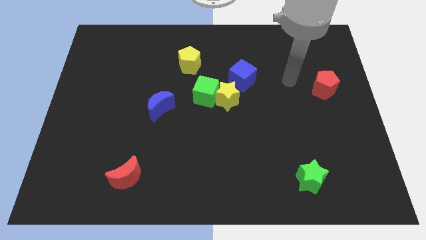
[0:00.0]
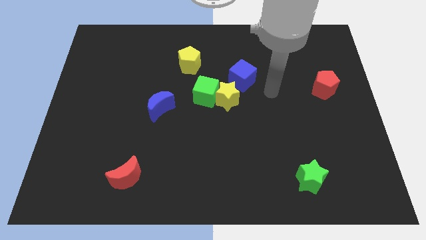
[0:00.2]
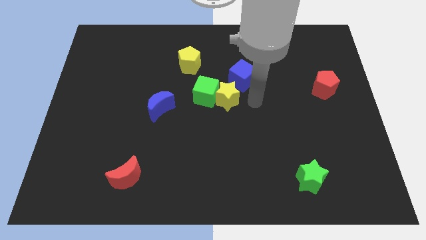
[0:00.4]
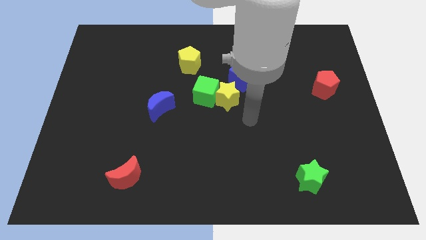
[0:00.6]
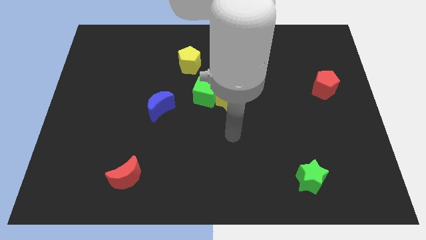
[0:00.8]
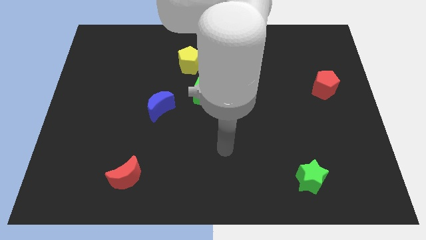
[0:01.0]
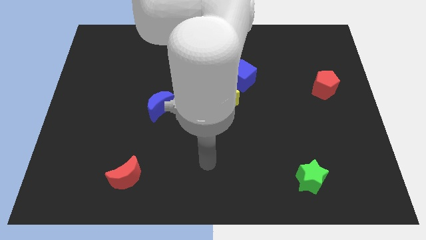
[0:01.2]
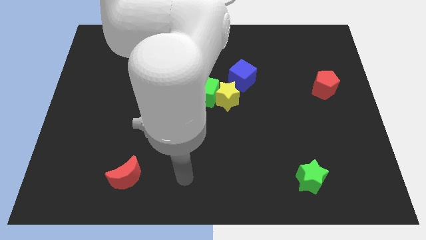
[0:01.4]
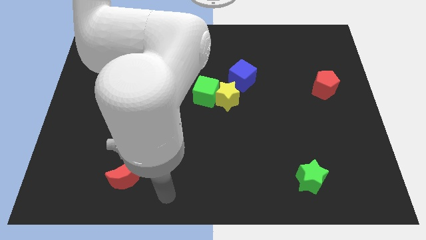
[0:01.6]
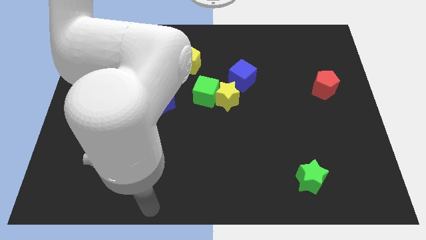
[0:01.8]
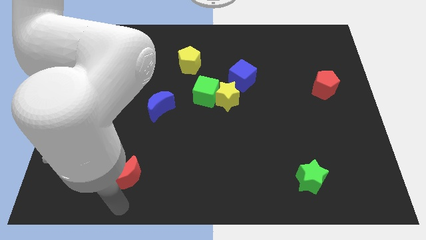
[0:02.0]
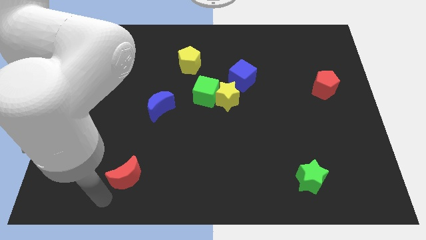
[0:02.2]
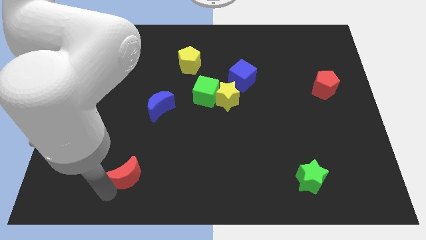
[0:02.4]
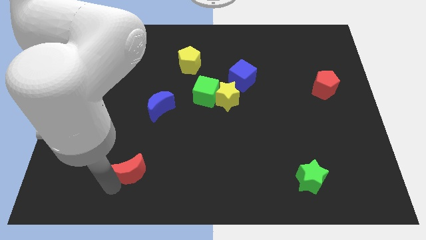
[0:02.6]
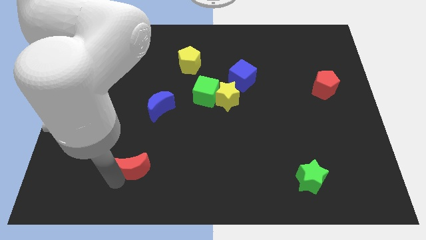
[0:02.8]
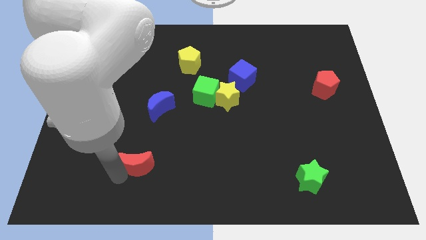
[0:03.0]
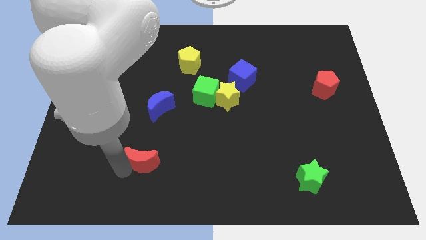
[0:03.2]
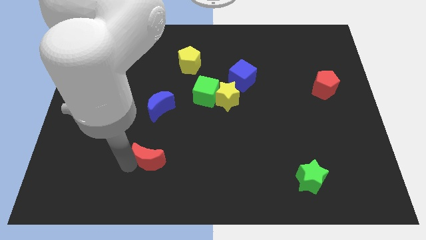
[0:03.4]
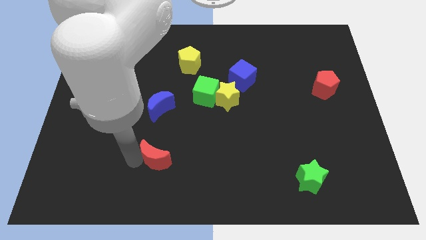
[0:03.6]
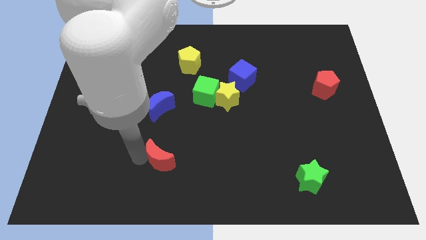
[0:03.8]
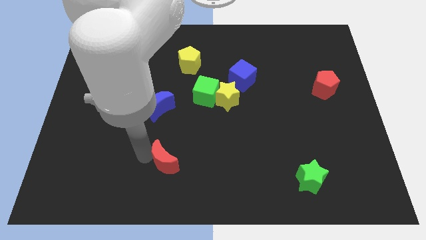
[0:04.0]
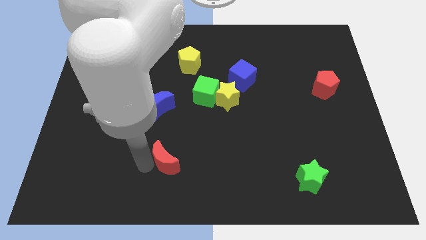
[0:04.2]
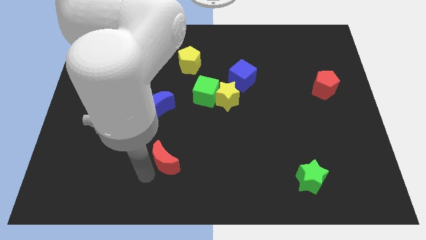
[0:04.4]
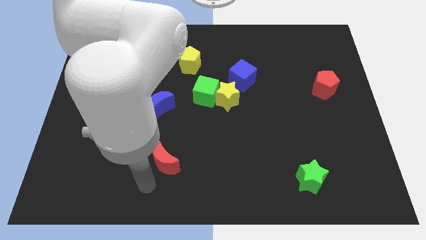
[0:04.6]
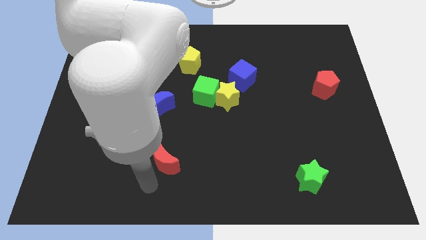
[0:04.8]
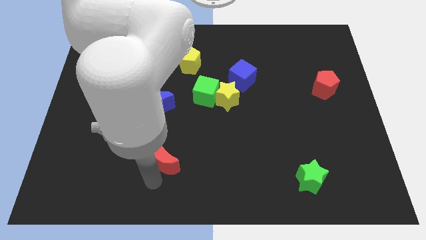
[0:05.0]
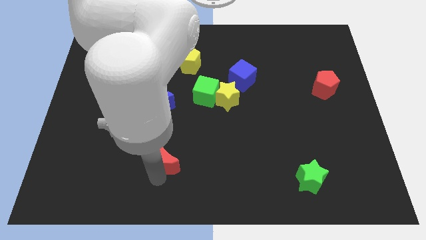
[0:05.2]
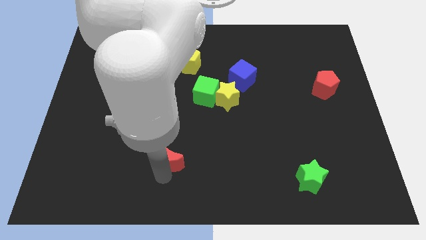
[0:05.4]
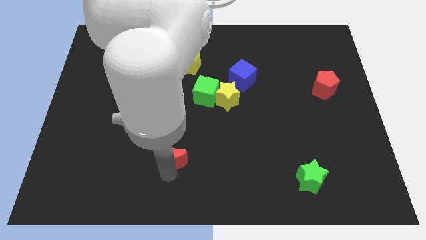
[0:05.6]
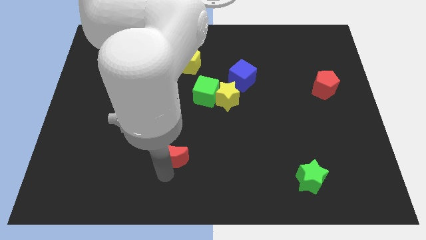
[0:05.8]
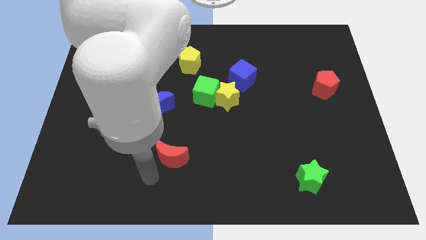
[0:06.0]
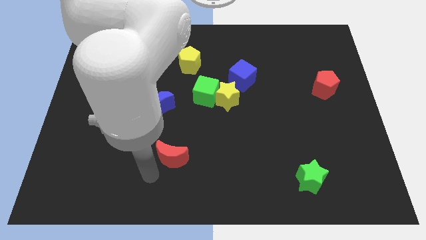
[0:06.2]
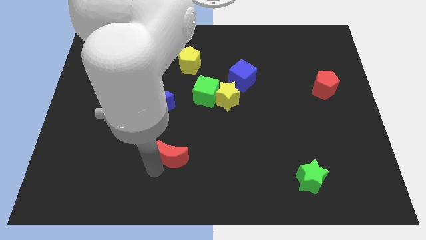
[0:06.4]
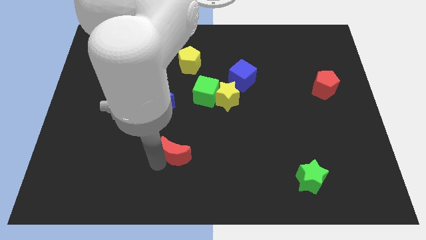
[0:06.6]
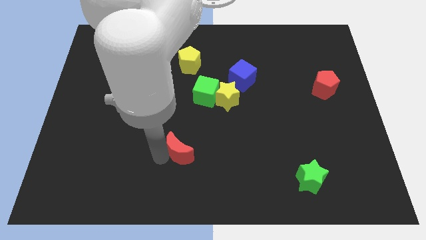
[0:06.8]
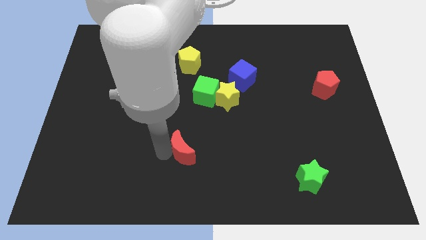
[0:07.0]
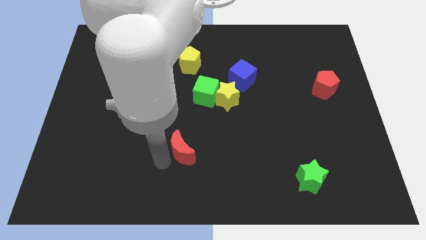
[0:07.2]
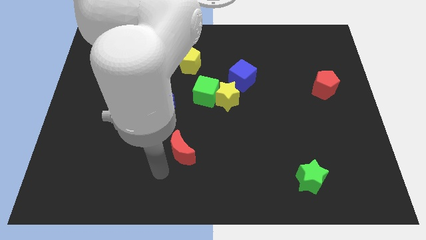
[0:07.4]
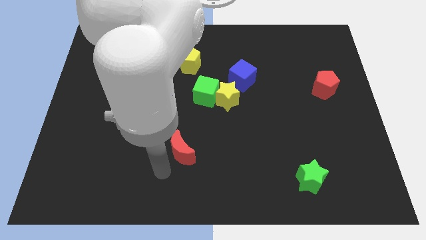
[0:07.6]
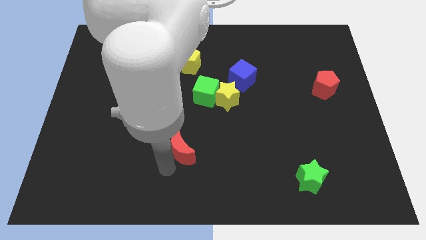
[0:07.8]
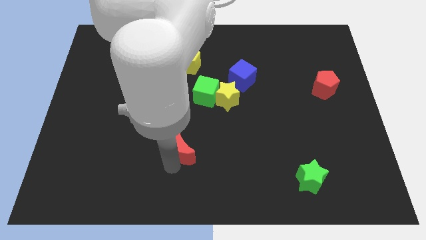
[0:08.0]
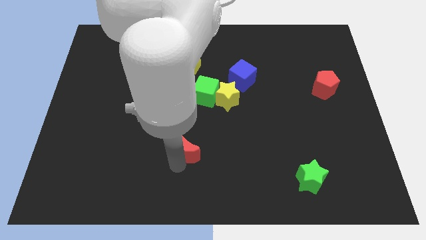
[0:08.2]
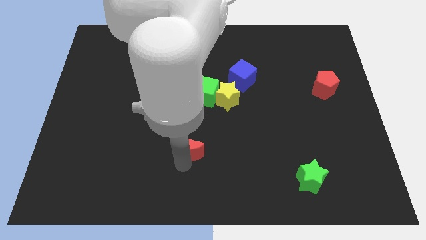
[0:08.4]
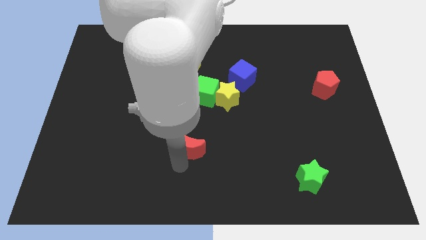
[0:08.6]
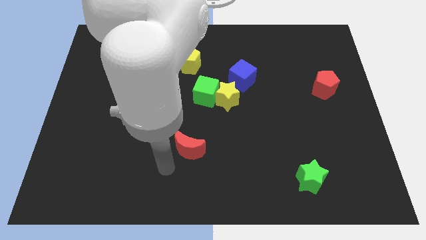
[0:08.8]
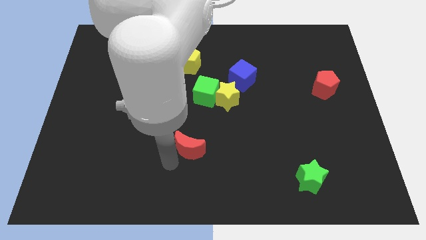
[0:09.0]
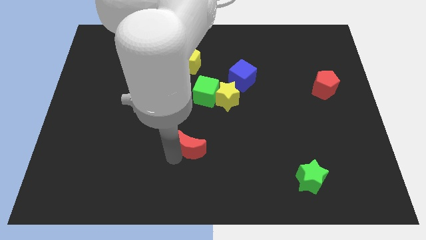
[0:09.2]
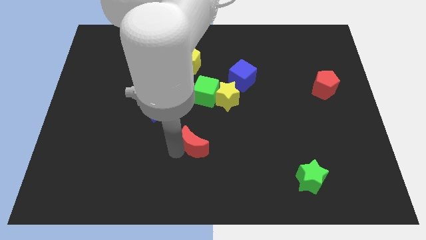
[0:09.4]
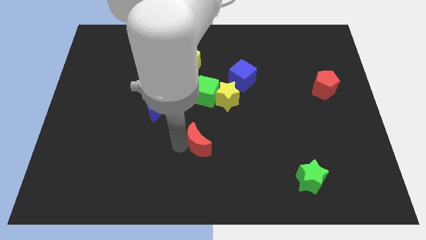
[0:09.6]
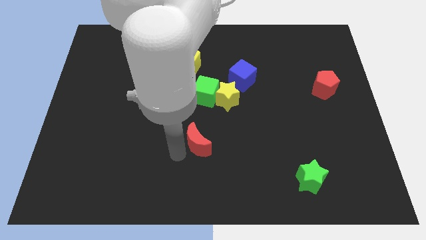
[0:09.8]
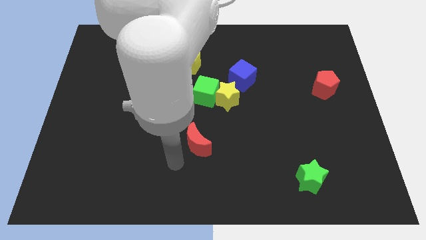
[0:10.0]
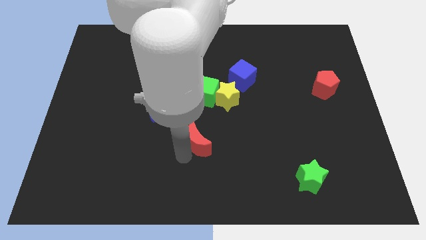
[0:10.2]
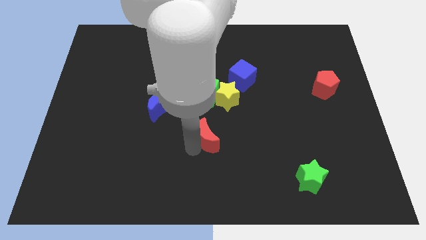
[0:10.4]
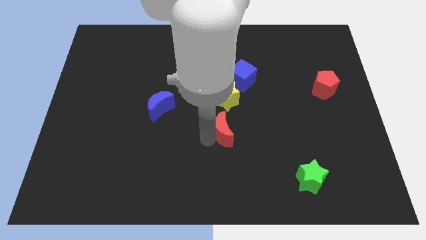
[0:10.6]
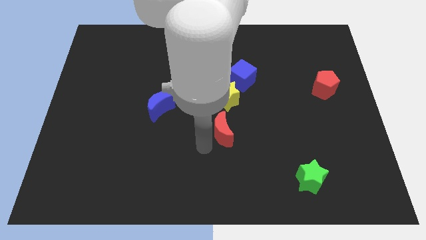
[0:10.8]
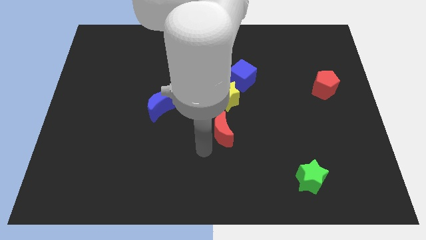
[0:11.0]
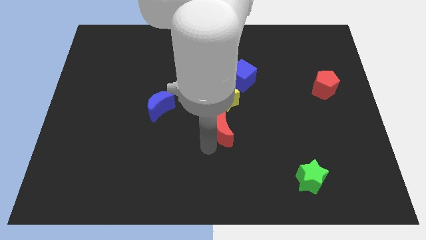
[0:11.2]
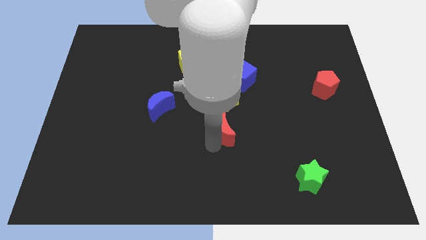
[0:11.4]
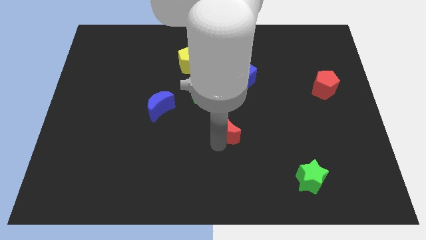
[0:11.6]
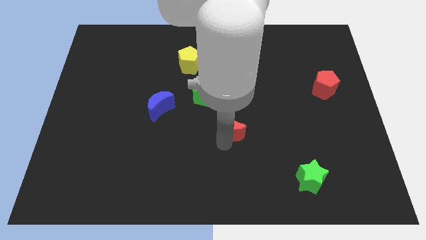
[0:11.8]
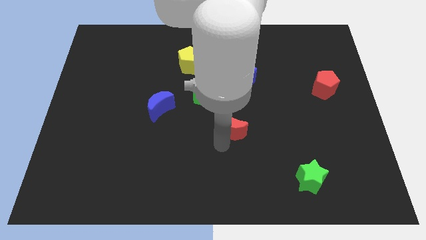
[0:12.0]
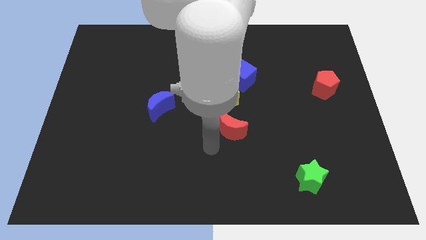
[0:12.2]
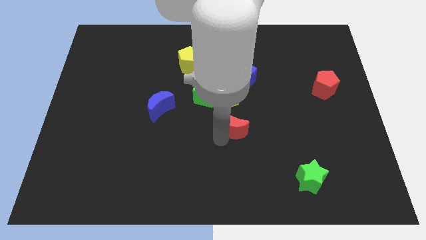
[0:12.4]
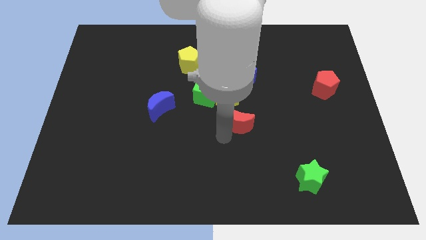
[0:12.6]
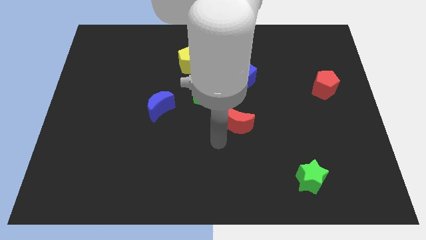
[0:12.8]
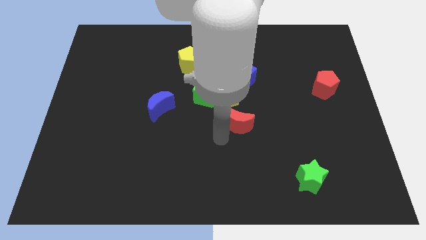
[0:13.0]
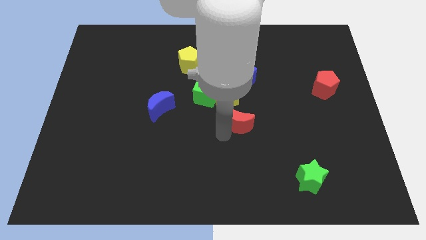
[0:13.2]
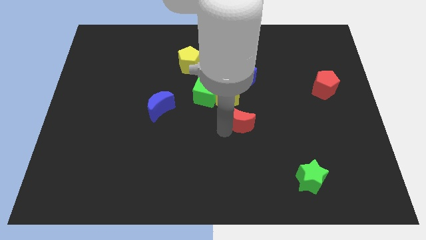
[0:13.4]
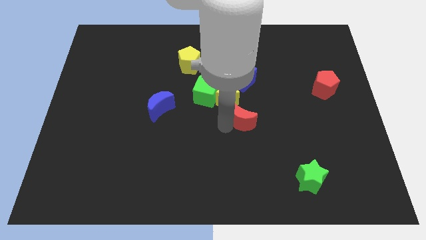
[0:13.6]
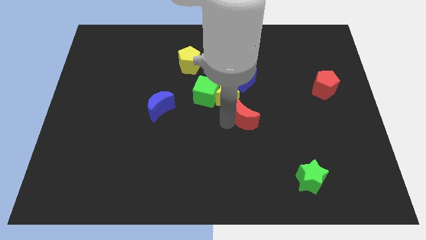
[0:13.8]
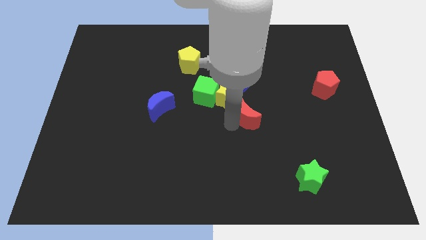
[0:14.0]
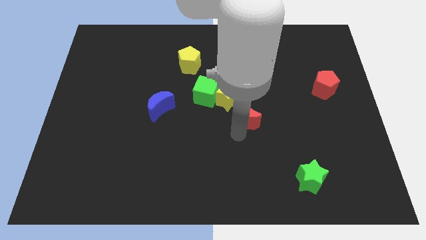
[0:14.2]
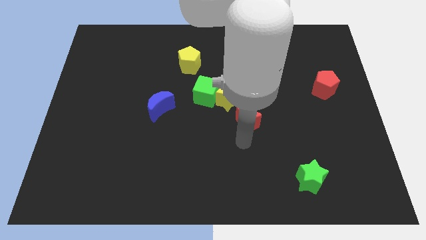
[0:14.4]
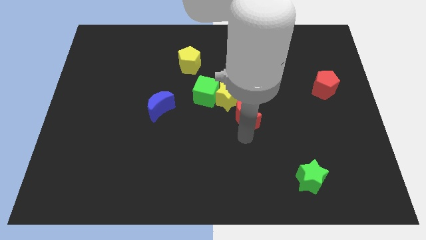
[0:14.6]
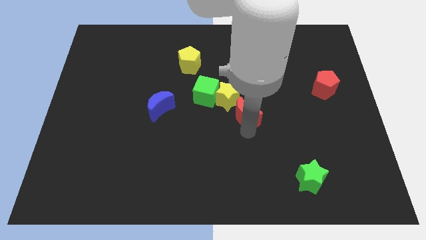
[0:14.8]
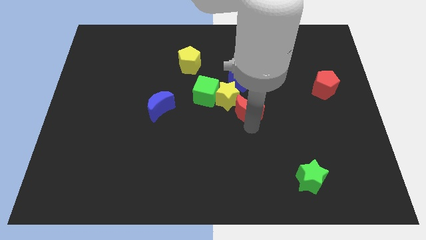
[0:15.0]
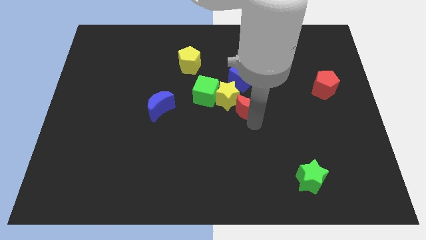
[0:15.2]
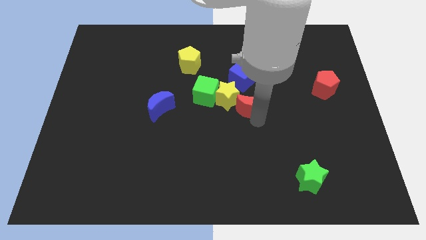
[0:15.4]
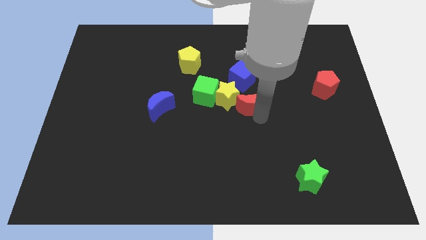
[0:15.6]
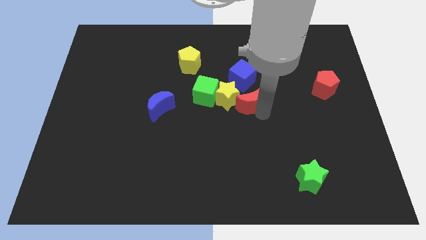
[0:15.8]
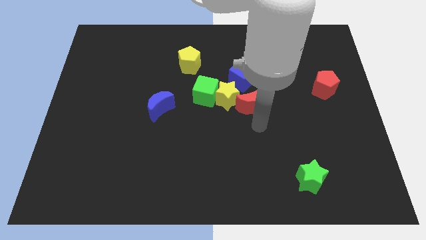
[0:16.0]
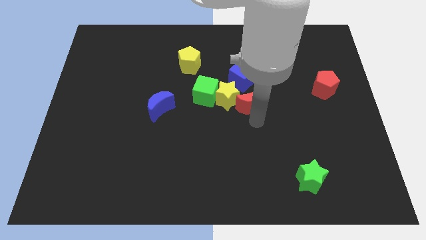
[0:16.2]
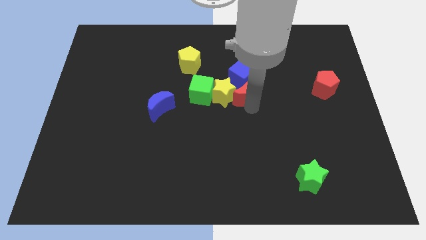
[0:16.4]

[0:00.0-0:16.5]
put the red moon to the blue cube
